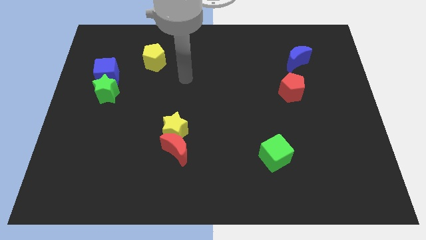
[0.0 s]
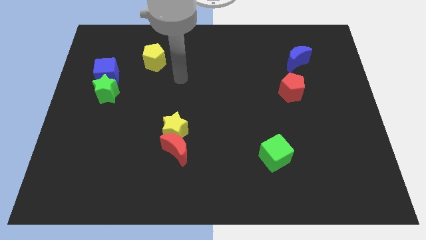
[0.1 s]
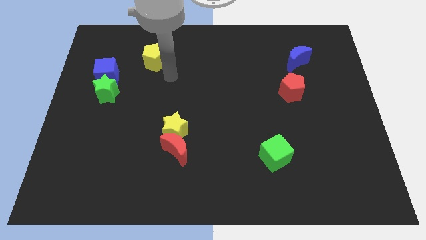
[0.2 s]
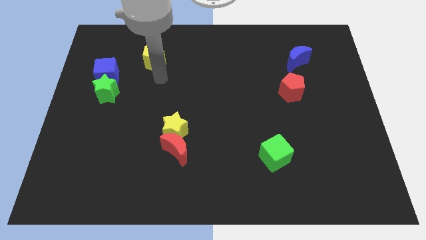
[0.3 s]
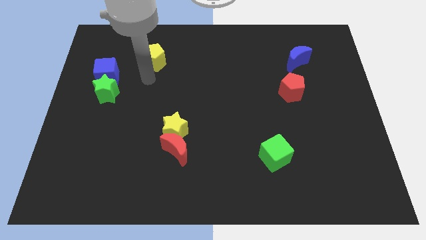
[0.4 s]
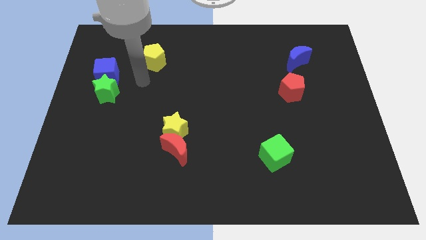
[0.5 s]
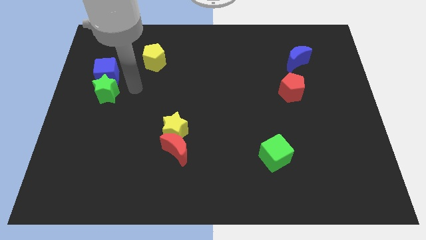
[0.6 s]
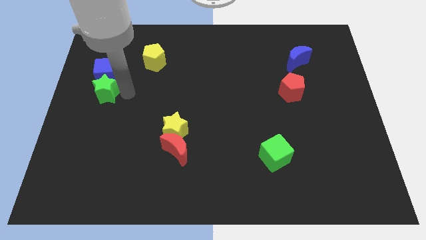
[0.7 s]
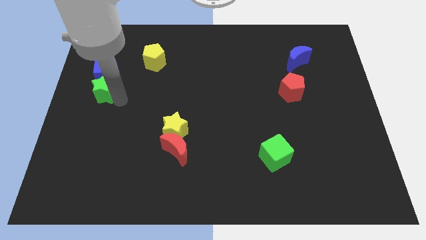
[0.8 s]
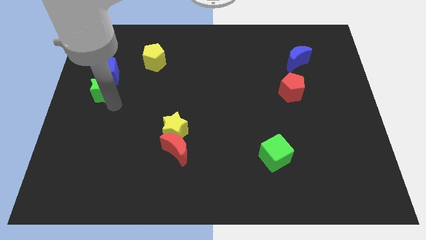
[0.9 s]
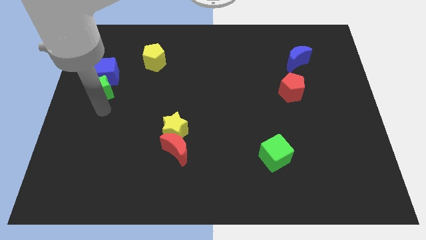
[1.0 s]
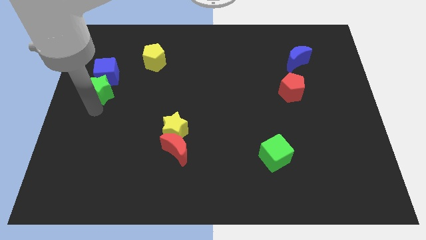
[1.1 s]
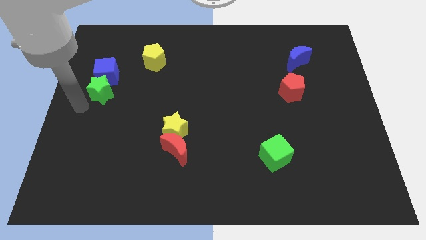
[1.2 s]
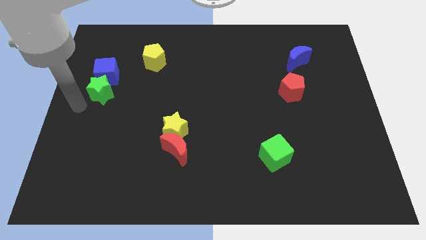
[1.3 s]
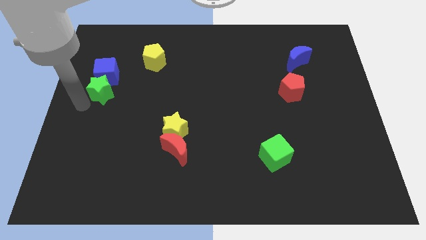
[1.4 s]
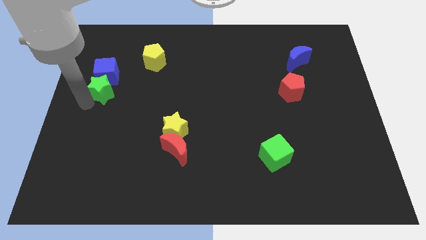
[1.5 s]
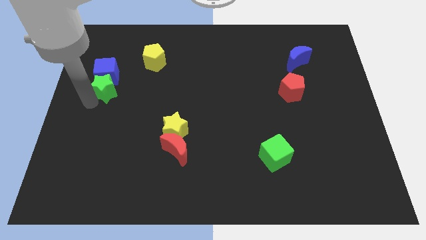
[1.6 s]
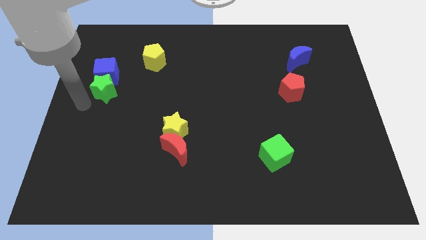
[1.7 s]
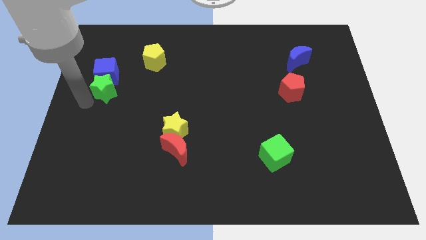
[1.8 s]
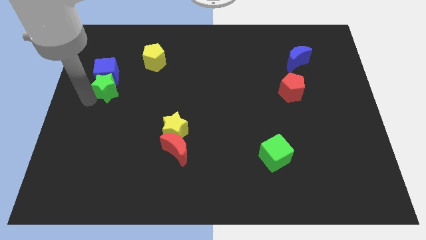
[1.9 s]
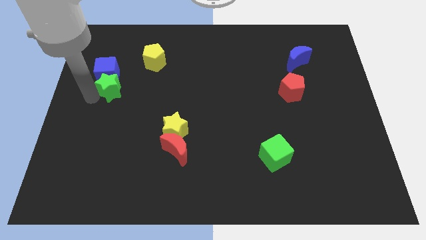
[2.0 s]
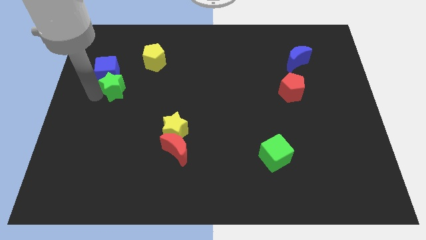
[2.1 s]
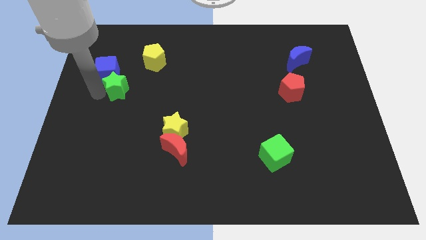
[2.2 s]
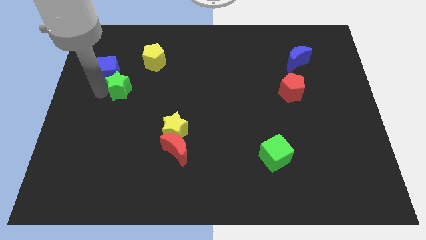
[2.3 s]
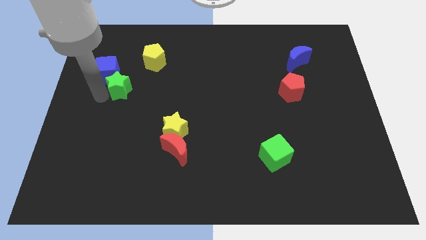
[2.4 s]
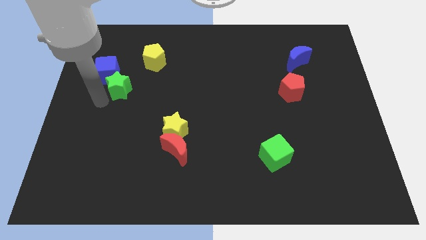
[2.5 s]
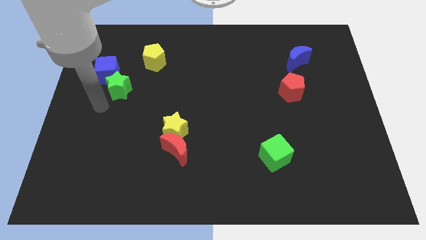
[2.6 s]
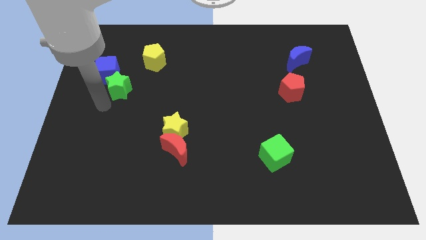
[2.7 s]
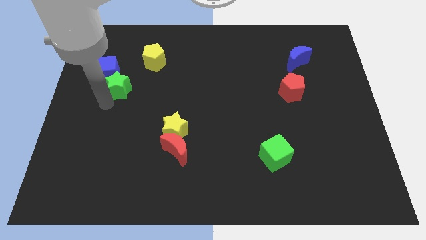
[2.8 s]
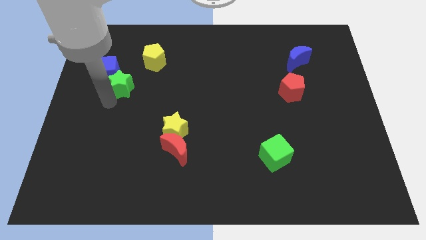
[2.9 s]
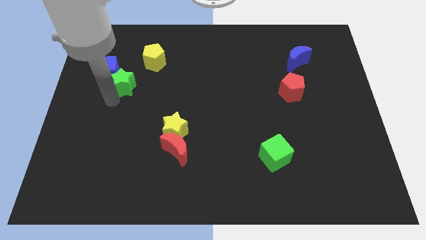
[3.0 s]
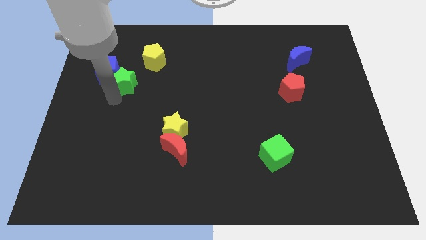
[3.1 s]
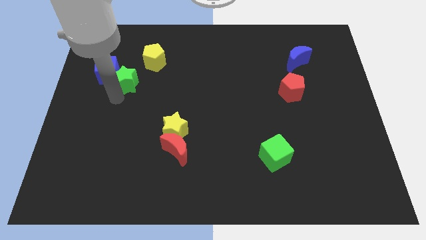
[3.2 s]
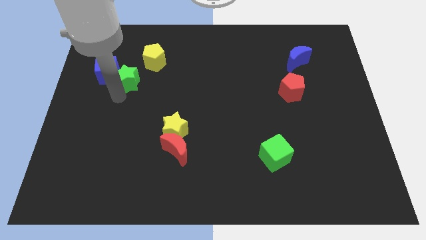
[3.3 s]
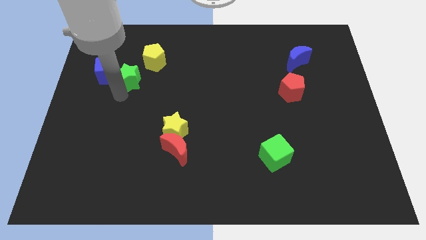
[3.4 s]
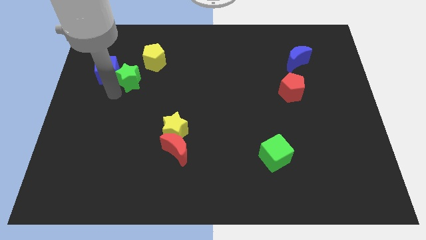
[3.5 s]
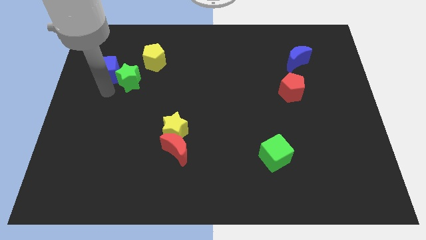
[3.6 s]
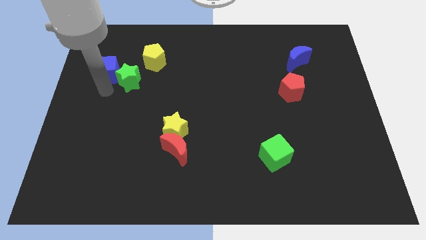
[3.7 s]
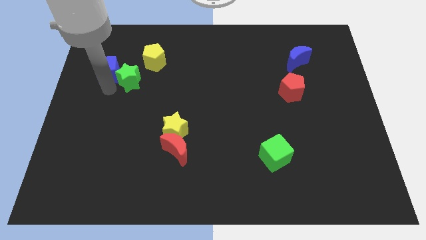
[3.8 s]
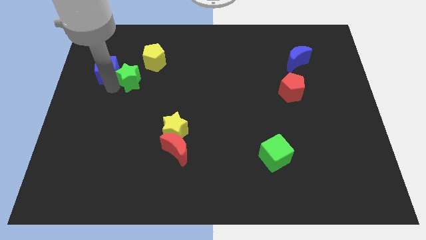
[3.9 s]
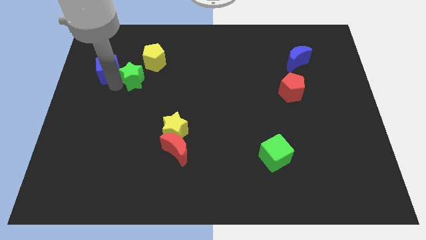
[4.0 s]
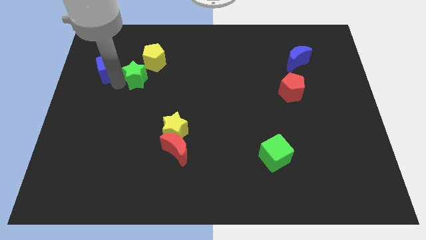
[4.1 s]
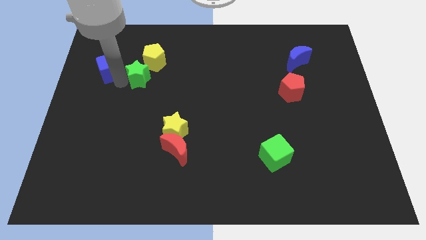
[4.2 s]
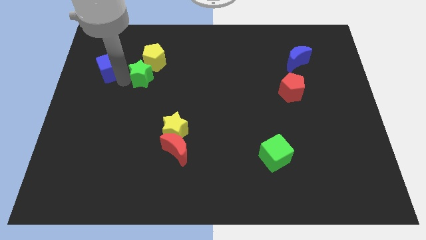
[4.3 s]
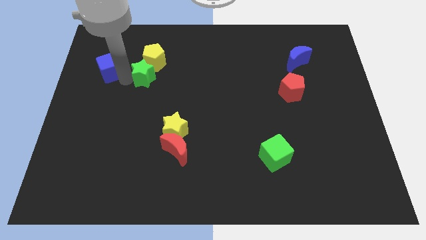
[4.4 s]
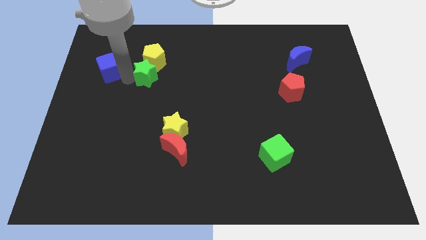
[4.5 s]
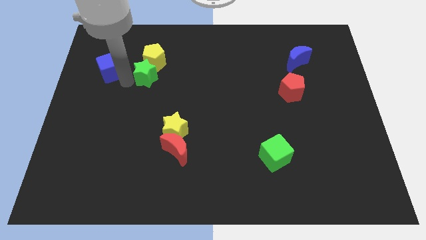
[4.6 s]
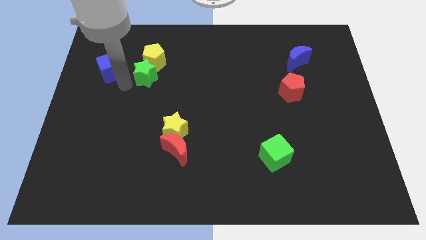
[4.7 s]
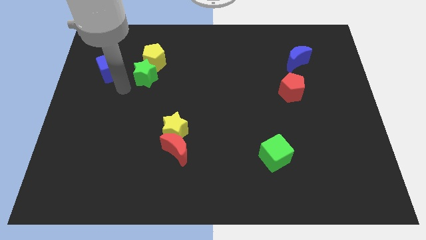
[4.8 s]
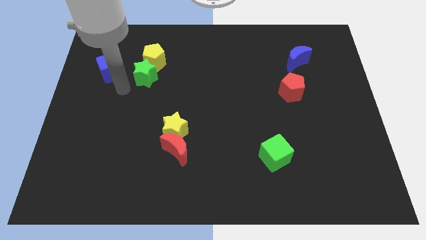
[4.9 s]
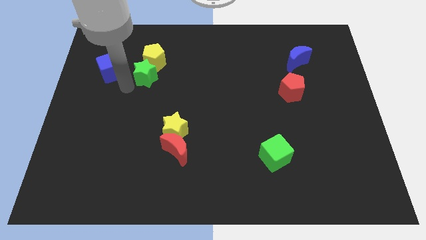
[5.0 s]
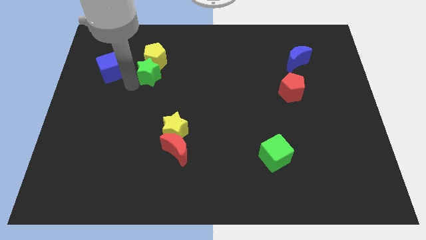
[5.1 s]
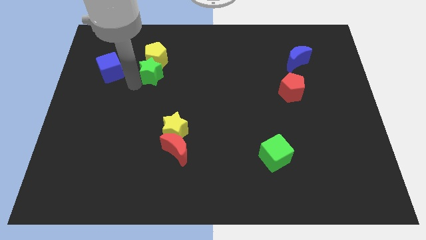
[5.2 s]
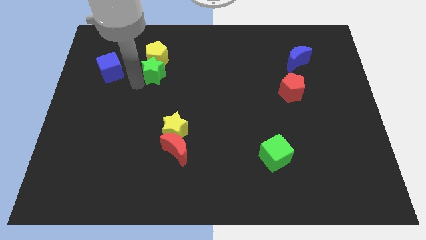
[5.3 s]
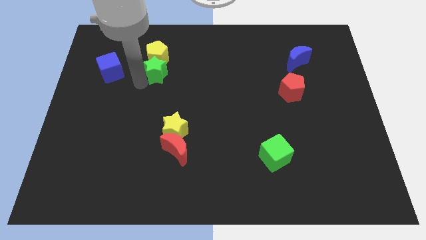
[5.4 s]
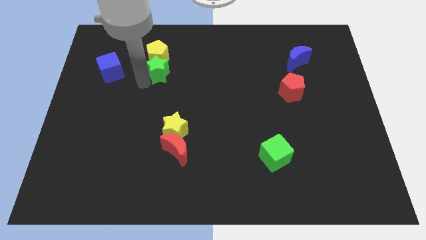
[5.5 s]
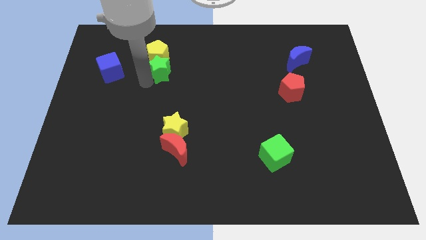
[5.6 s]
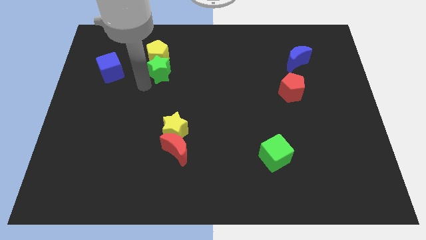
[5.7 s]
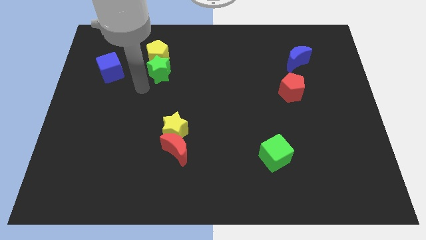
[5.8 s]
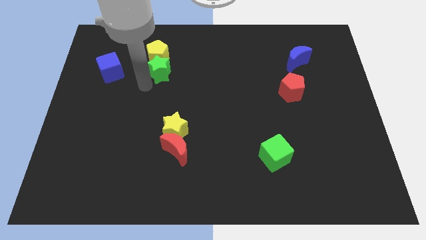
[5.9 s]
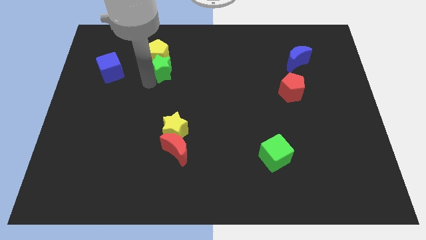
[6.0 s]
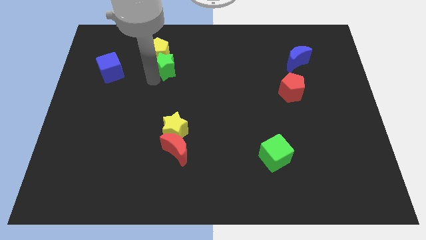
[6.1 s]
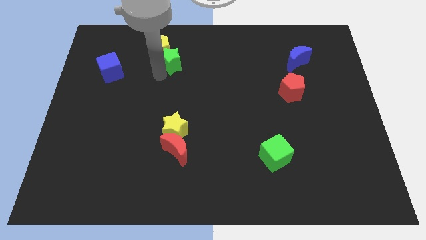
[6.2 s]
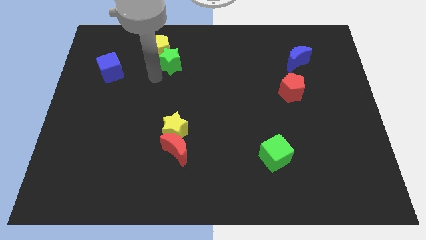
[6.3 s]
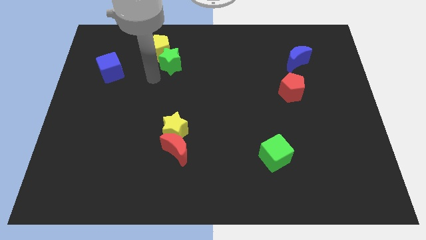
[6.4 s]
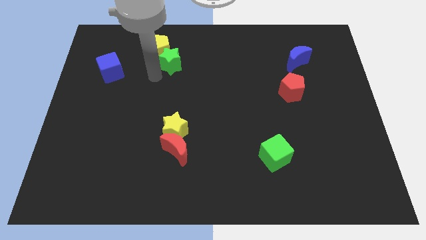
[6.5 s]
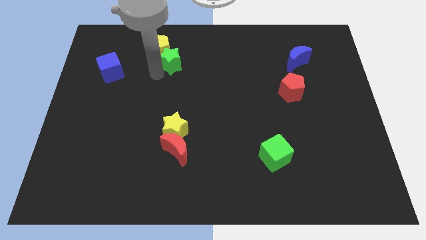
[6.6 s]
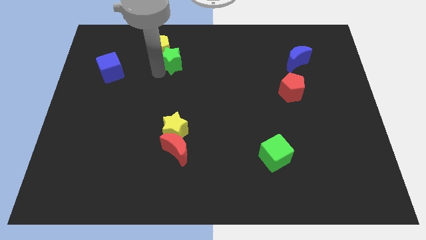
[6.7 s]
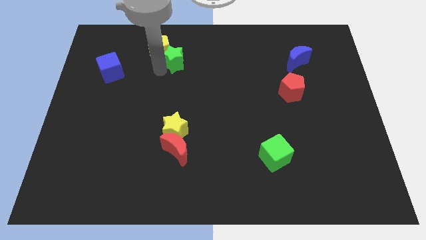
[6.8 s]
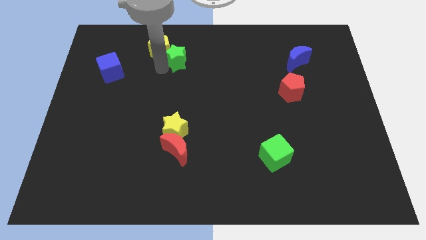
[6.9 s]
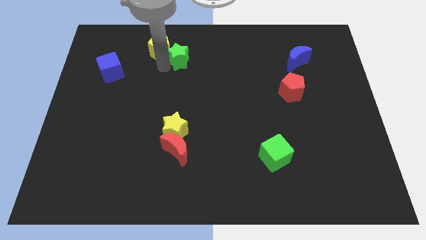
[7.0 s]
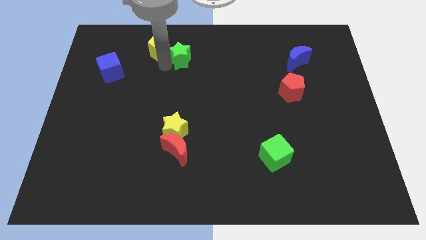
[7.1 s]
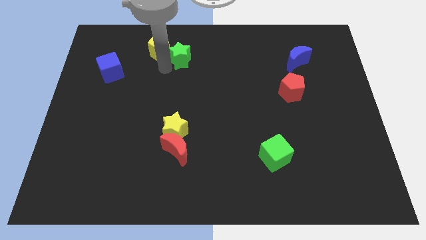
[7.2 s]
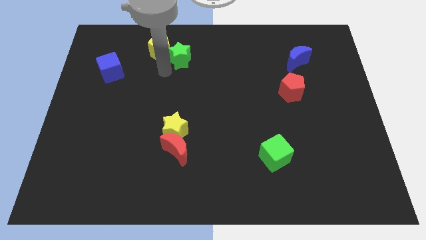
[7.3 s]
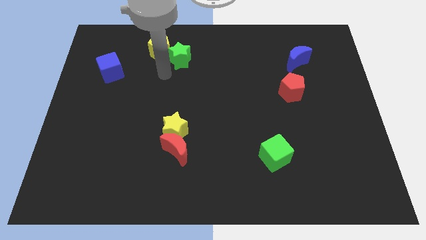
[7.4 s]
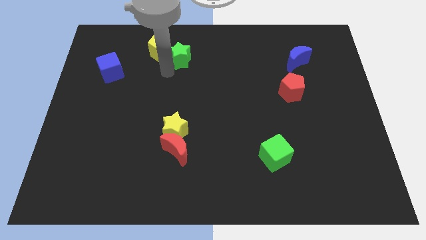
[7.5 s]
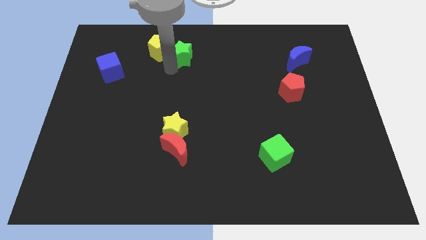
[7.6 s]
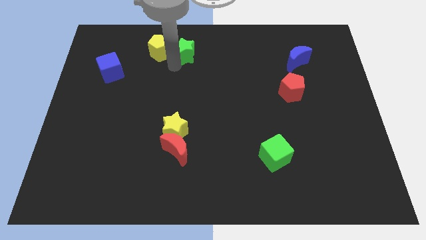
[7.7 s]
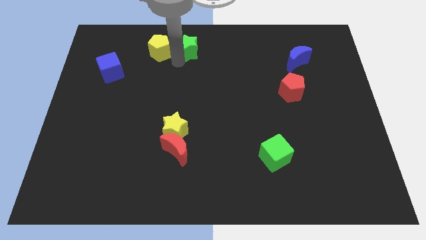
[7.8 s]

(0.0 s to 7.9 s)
move the green star to the top side
